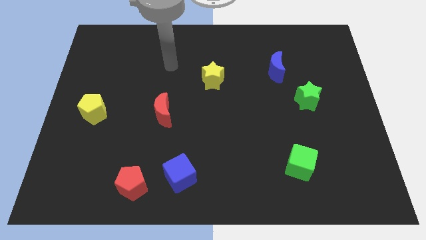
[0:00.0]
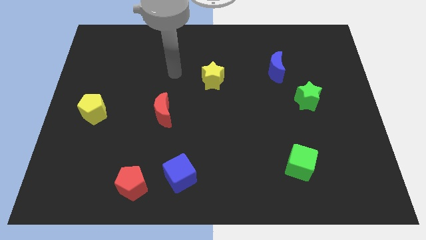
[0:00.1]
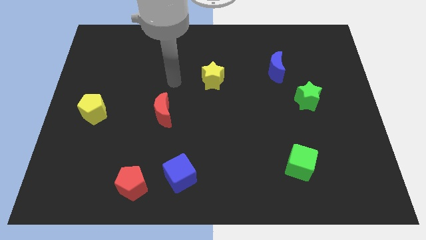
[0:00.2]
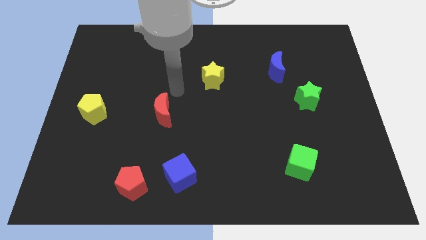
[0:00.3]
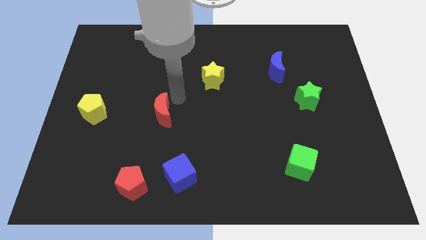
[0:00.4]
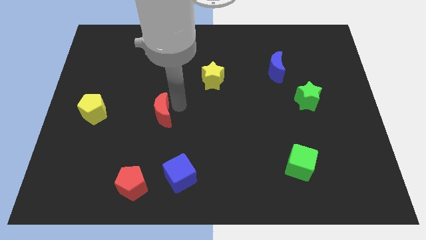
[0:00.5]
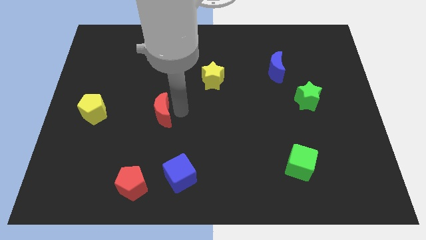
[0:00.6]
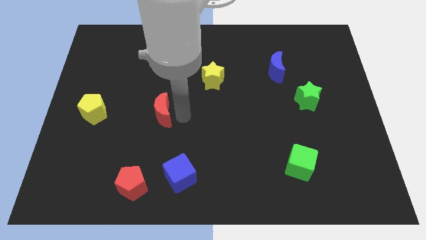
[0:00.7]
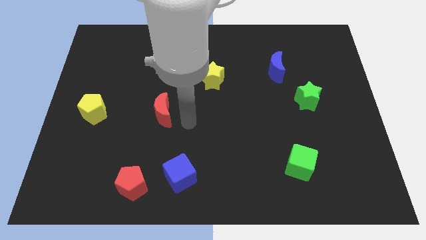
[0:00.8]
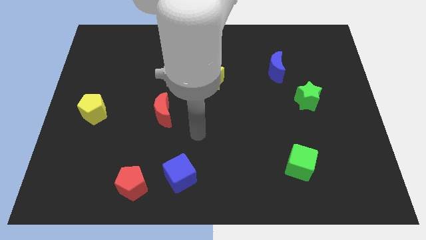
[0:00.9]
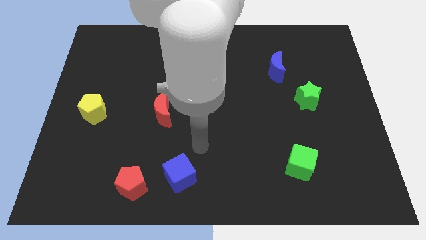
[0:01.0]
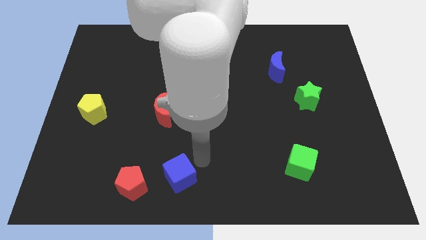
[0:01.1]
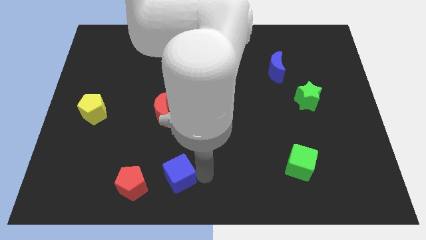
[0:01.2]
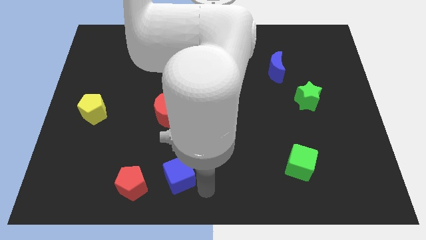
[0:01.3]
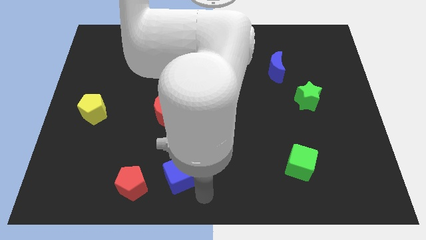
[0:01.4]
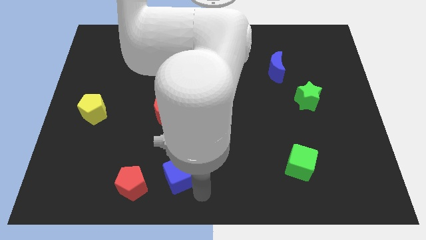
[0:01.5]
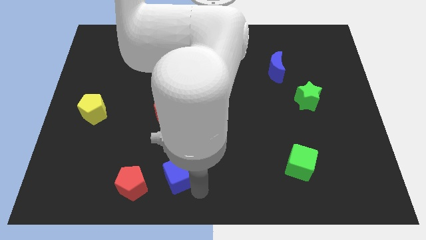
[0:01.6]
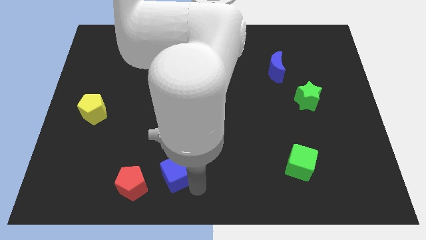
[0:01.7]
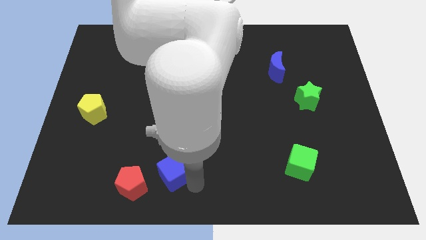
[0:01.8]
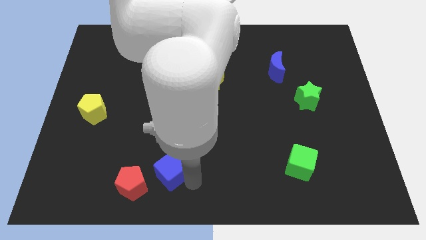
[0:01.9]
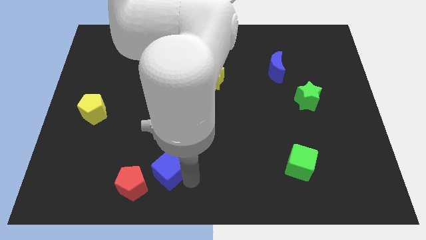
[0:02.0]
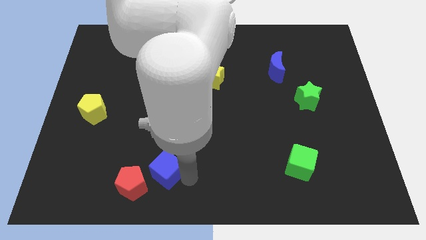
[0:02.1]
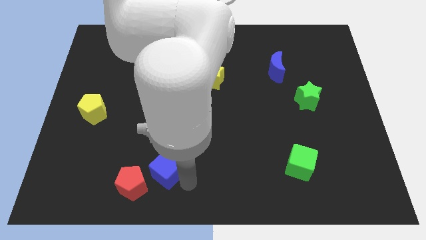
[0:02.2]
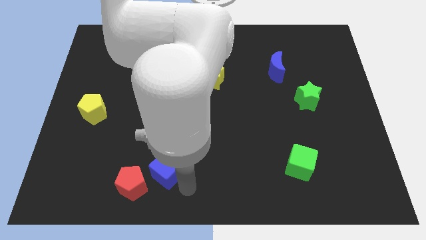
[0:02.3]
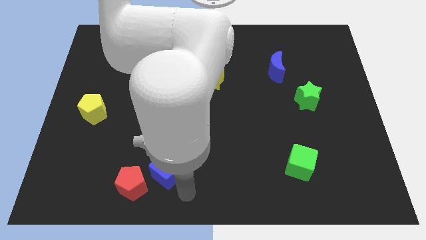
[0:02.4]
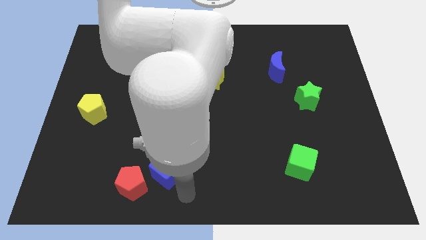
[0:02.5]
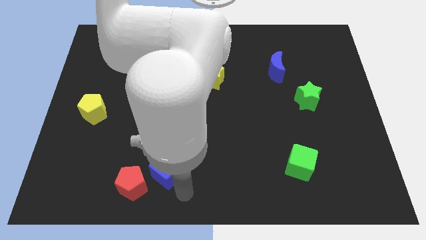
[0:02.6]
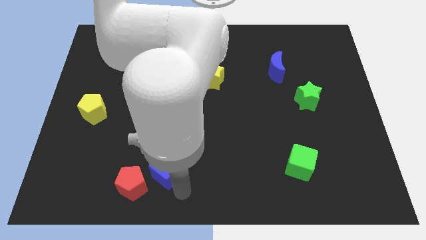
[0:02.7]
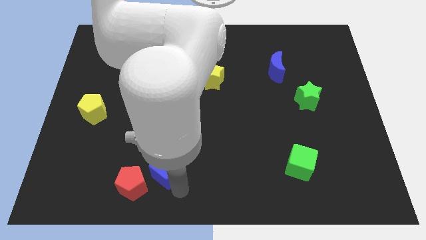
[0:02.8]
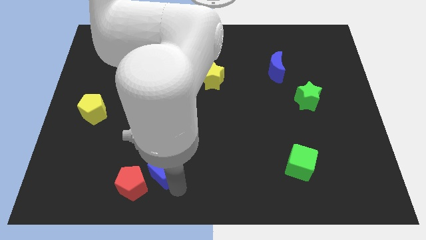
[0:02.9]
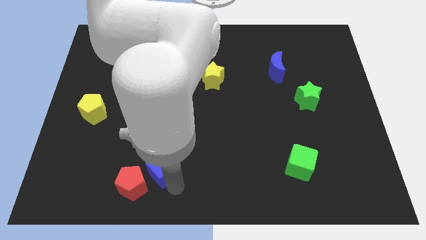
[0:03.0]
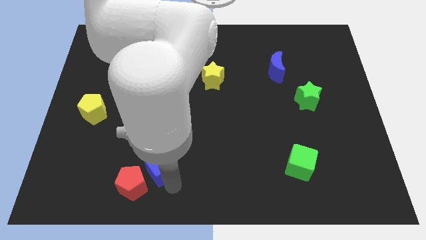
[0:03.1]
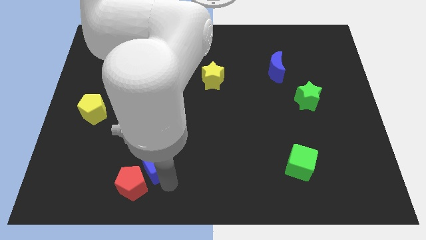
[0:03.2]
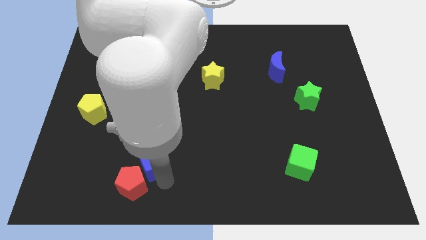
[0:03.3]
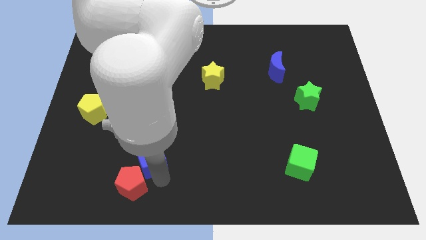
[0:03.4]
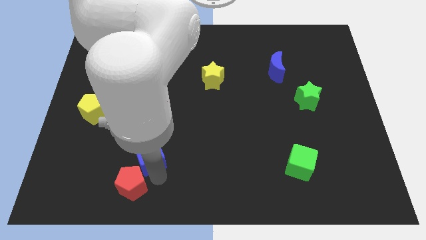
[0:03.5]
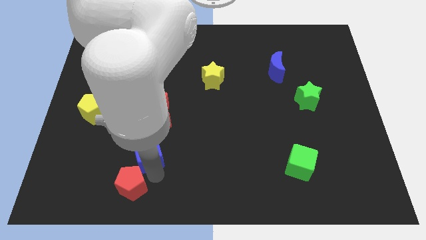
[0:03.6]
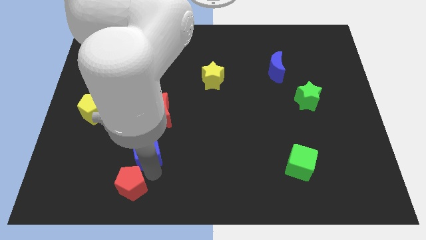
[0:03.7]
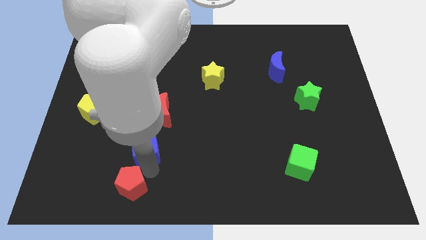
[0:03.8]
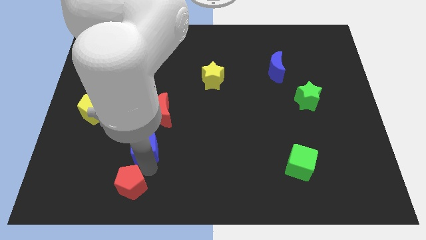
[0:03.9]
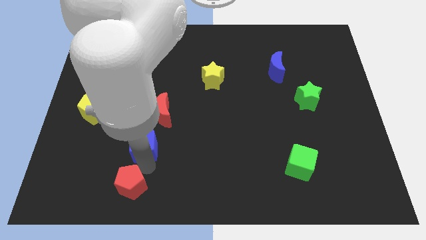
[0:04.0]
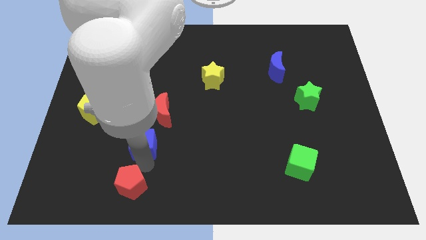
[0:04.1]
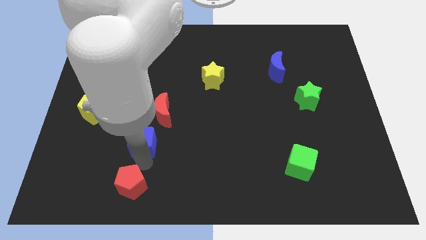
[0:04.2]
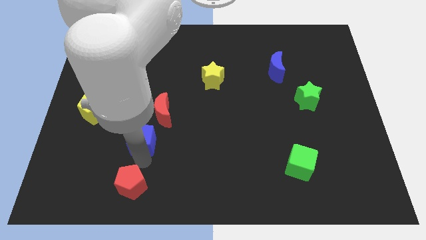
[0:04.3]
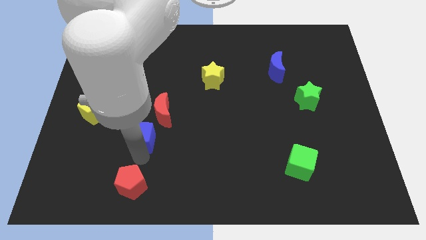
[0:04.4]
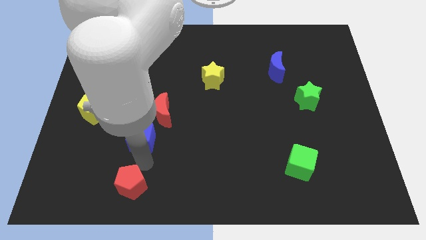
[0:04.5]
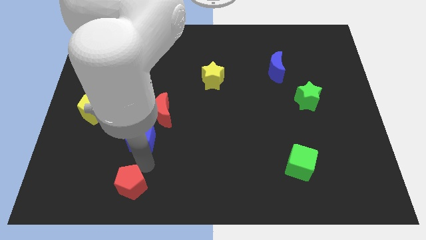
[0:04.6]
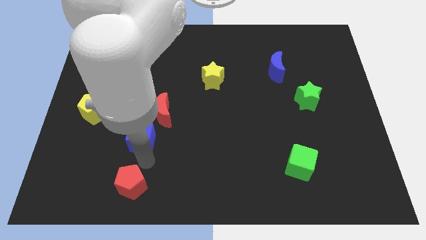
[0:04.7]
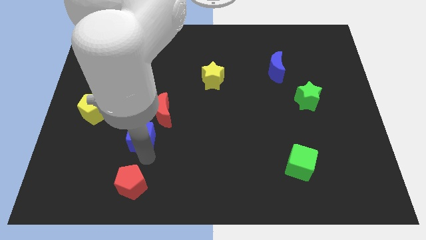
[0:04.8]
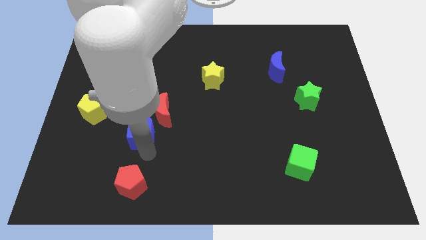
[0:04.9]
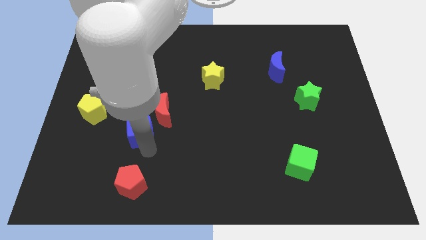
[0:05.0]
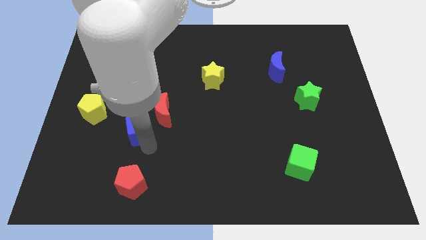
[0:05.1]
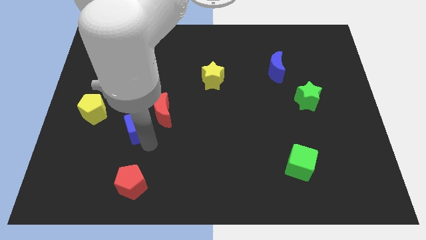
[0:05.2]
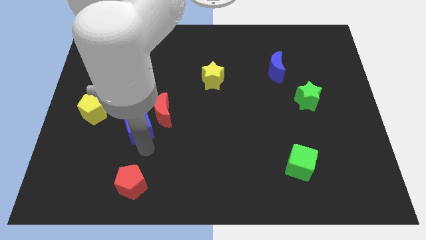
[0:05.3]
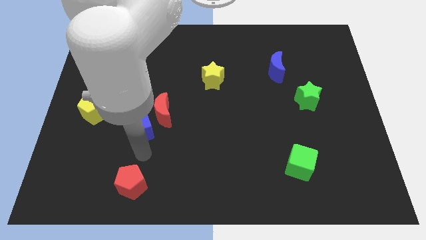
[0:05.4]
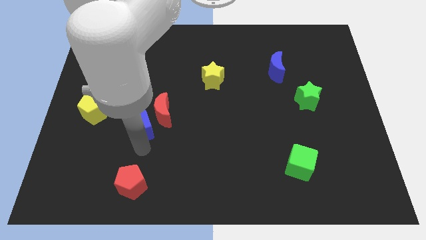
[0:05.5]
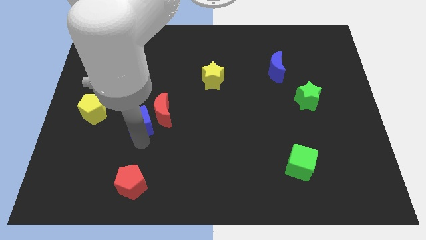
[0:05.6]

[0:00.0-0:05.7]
push the blue cube to the right of the yellow pentagon

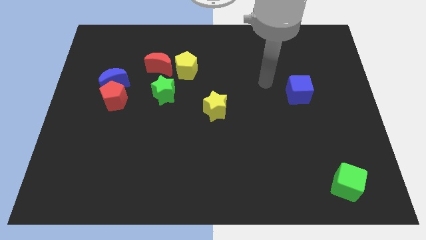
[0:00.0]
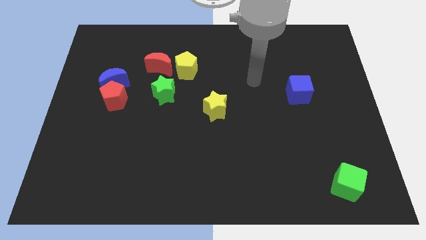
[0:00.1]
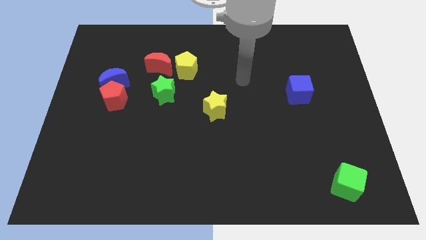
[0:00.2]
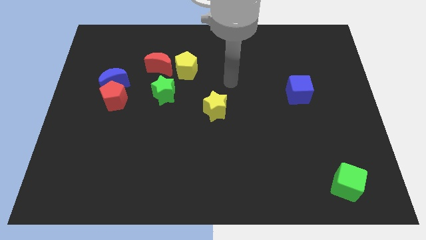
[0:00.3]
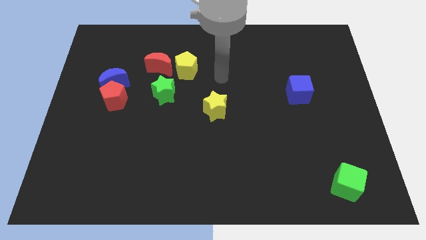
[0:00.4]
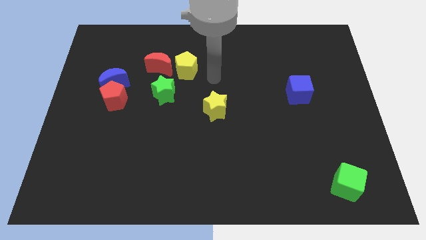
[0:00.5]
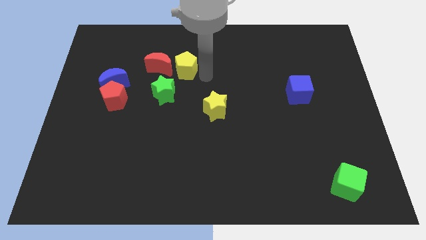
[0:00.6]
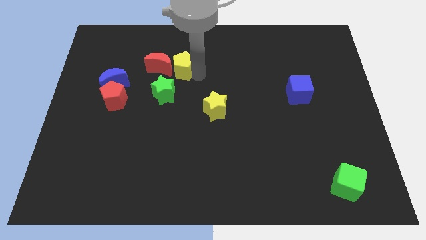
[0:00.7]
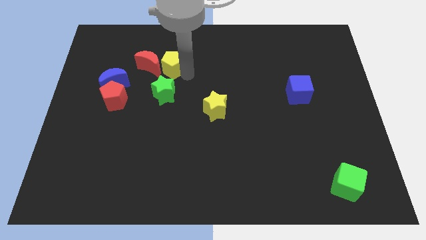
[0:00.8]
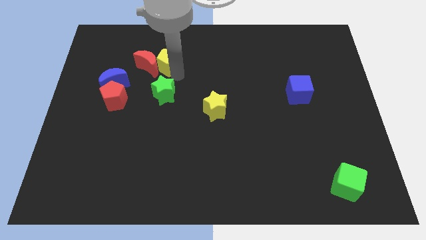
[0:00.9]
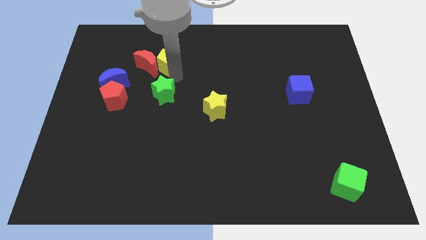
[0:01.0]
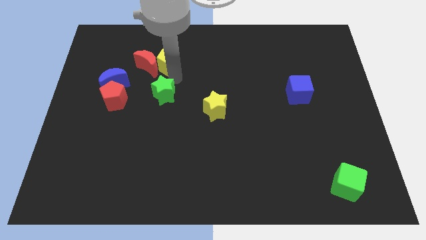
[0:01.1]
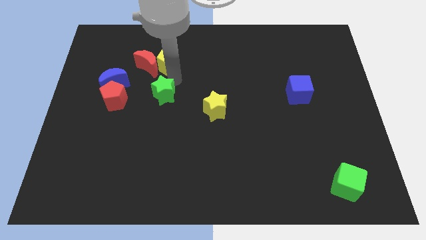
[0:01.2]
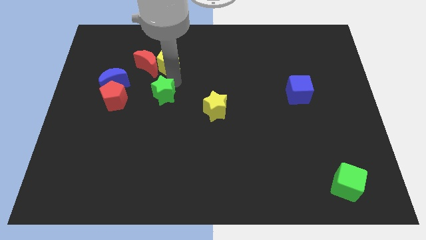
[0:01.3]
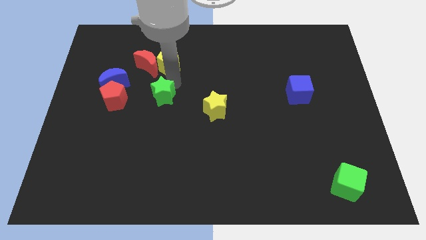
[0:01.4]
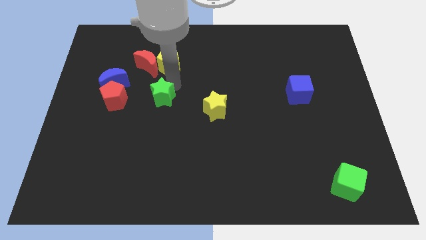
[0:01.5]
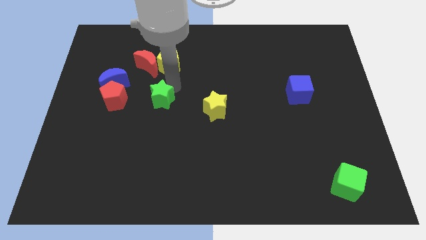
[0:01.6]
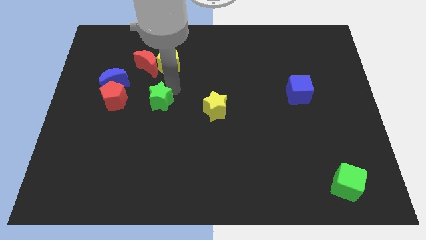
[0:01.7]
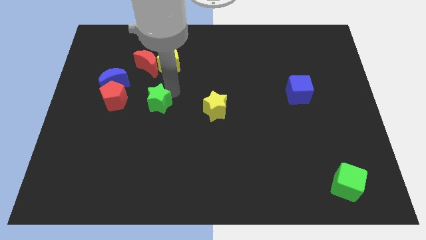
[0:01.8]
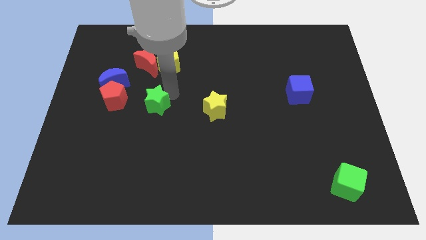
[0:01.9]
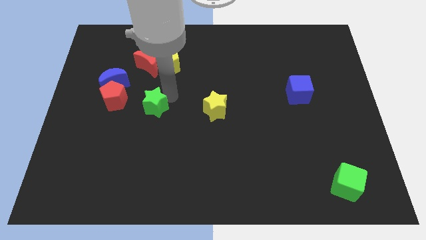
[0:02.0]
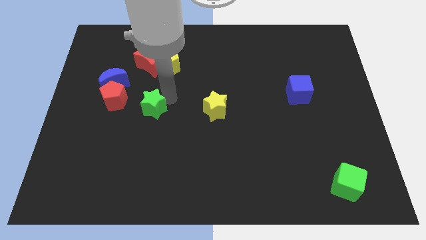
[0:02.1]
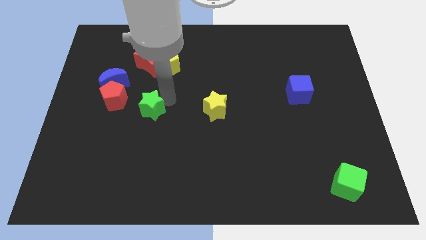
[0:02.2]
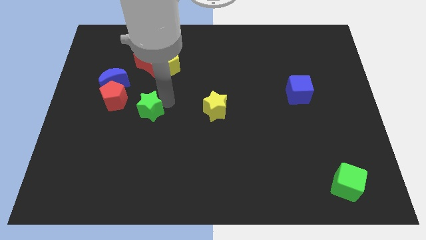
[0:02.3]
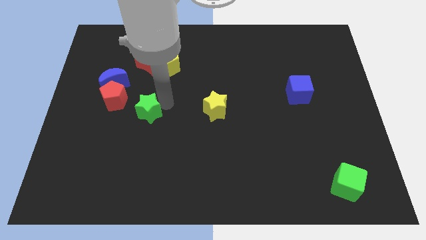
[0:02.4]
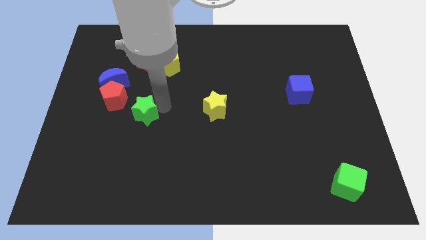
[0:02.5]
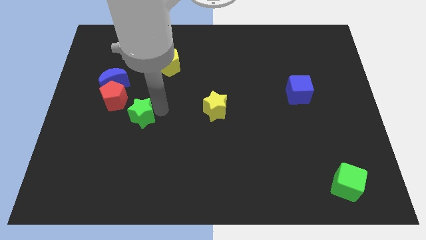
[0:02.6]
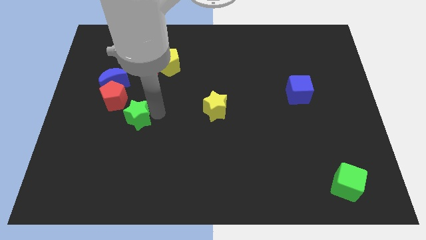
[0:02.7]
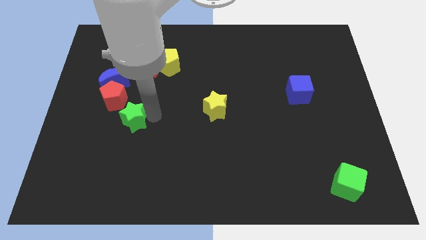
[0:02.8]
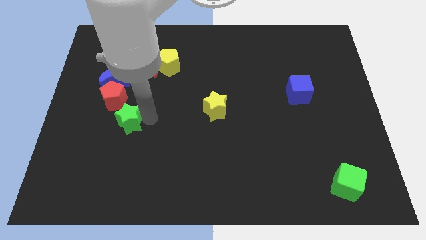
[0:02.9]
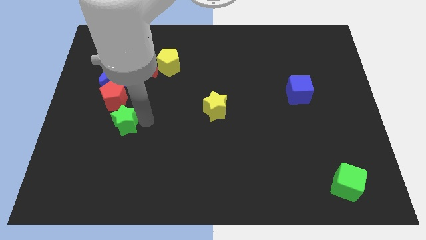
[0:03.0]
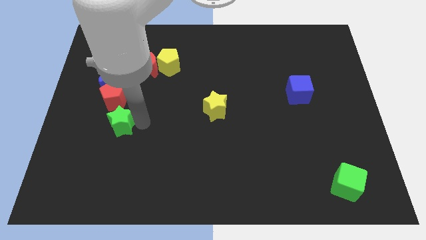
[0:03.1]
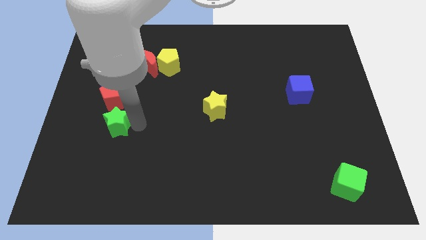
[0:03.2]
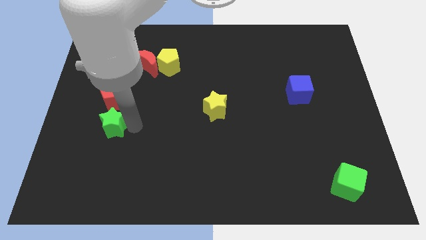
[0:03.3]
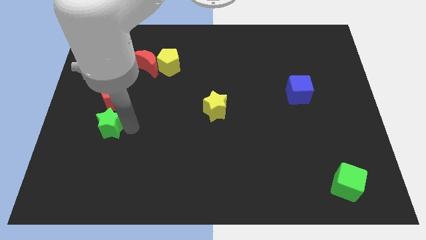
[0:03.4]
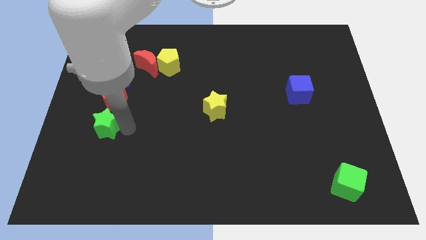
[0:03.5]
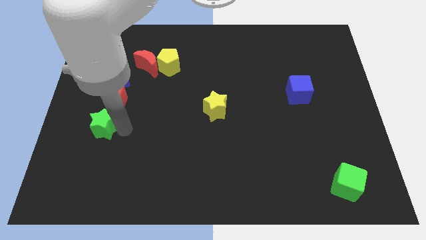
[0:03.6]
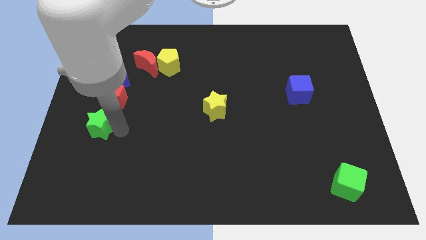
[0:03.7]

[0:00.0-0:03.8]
push the green star to the bottom left side of the red pentagon
